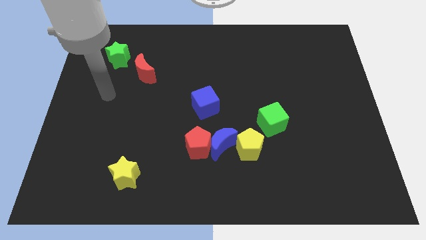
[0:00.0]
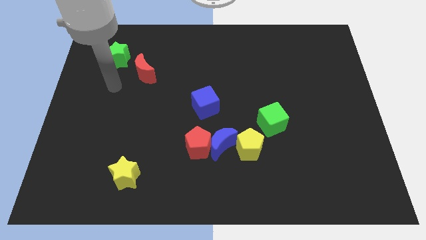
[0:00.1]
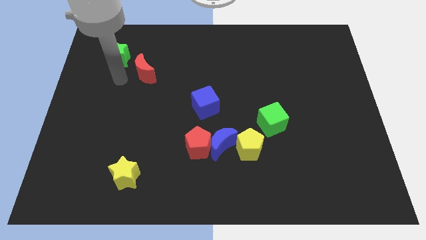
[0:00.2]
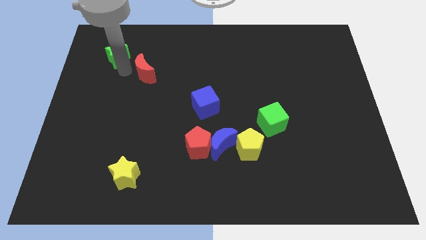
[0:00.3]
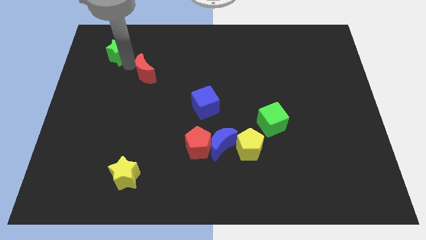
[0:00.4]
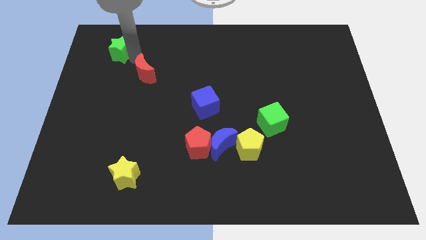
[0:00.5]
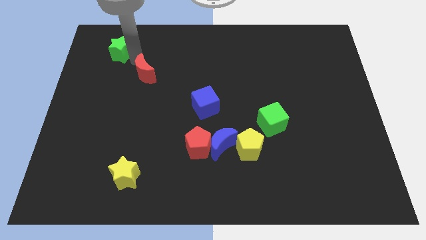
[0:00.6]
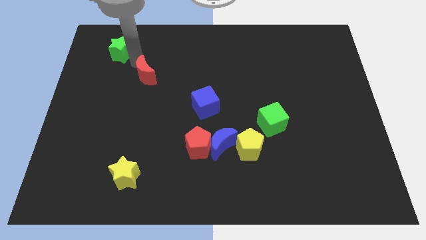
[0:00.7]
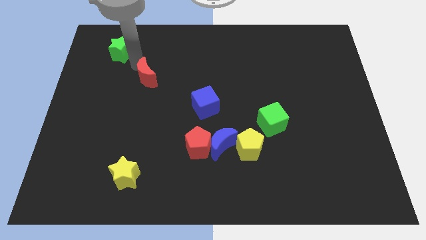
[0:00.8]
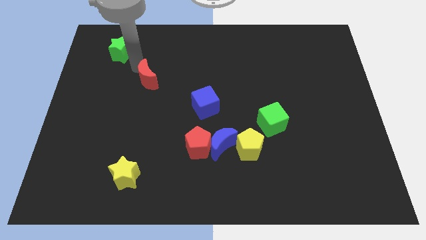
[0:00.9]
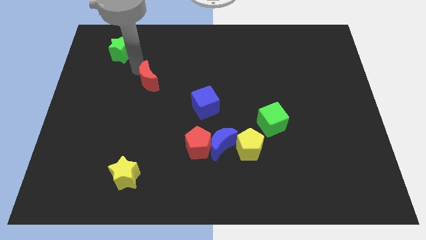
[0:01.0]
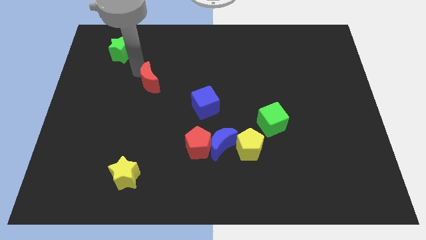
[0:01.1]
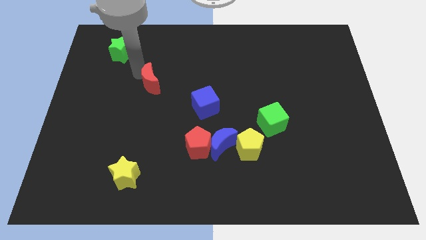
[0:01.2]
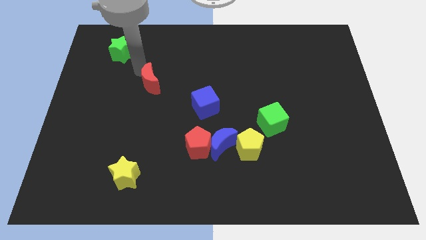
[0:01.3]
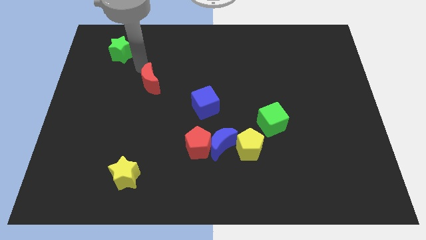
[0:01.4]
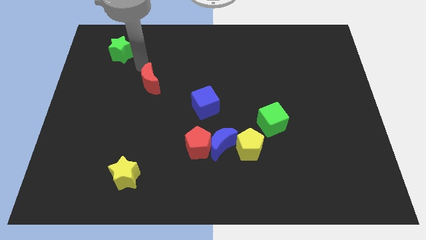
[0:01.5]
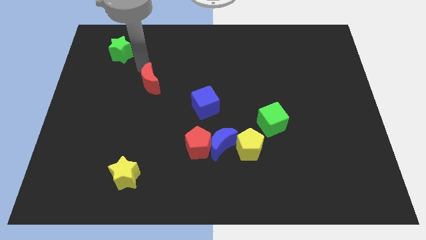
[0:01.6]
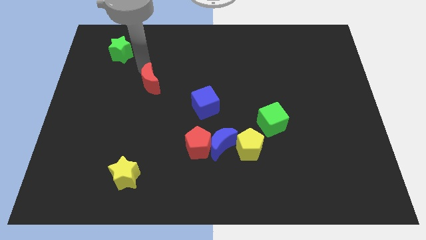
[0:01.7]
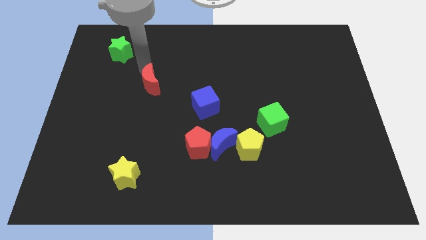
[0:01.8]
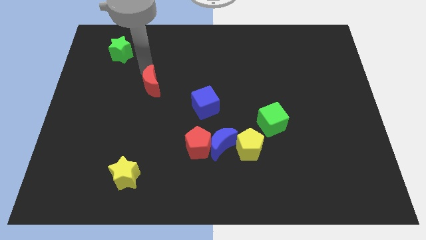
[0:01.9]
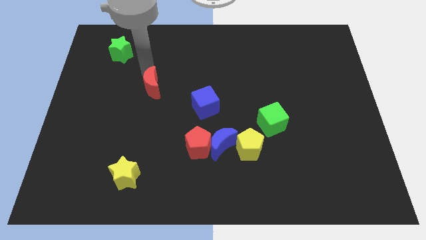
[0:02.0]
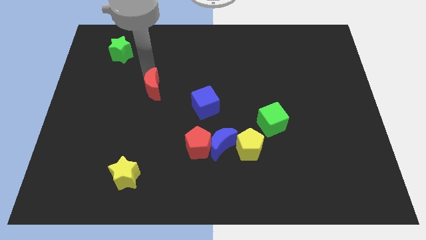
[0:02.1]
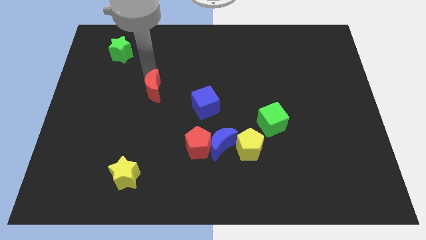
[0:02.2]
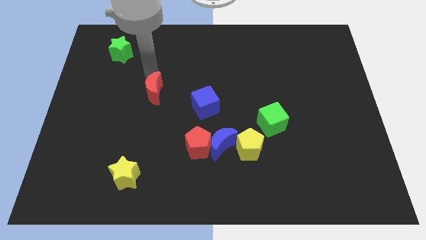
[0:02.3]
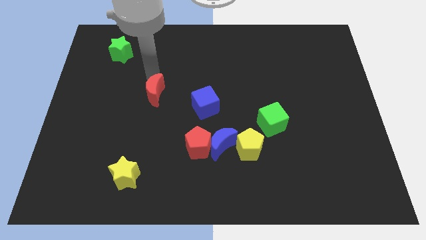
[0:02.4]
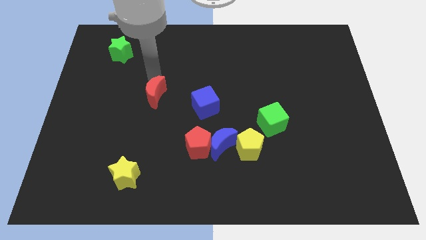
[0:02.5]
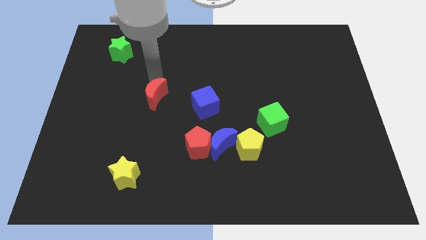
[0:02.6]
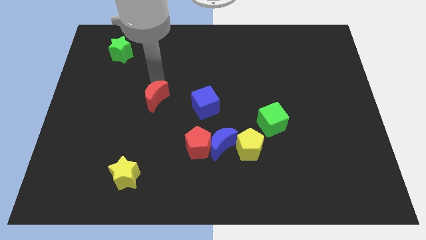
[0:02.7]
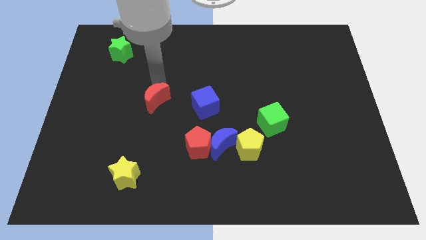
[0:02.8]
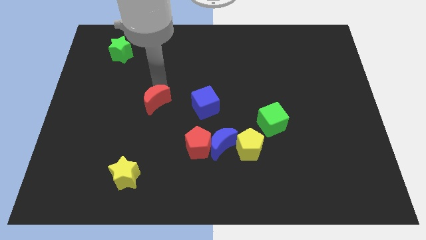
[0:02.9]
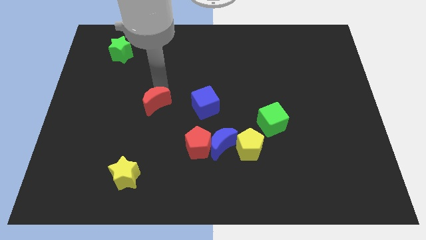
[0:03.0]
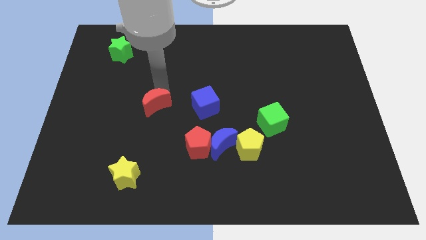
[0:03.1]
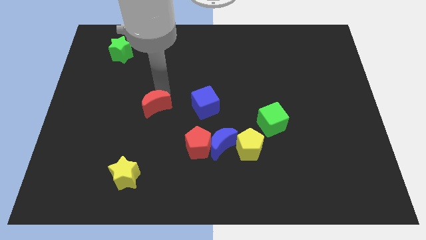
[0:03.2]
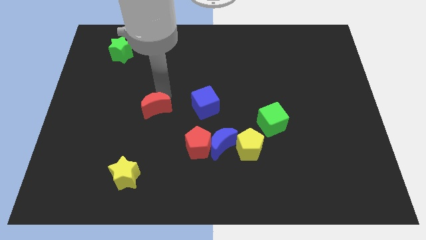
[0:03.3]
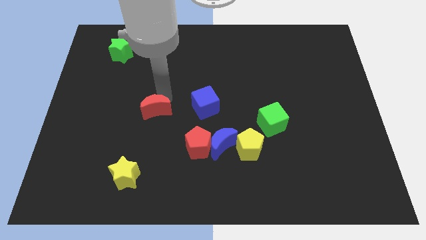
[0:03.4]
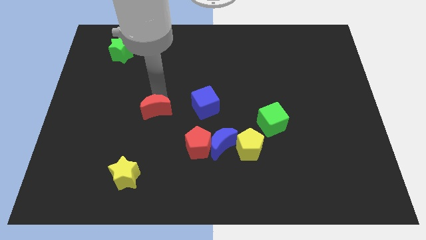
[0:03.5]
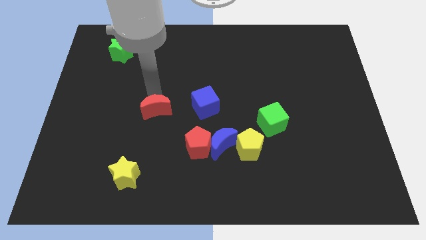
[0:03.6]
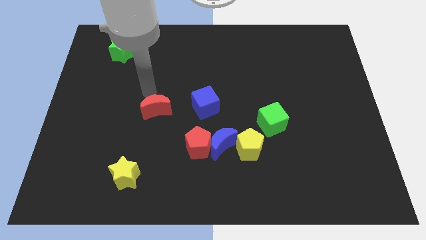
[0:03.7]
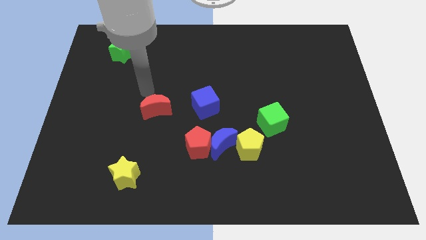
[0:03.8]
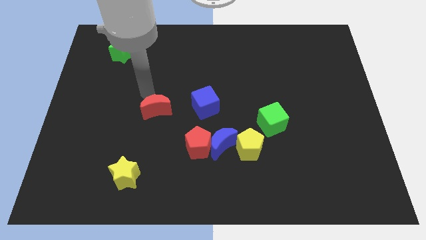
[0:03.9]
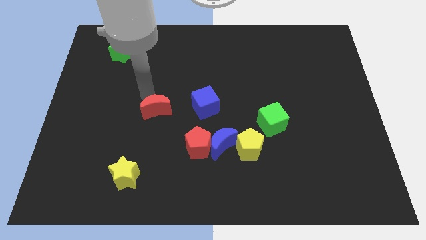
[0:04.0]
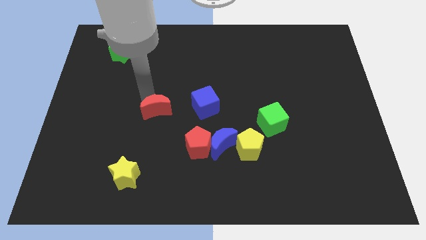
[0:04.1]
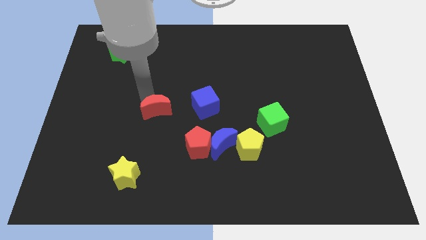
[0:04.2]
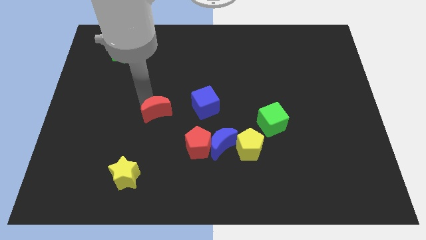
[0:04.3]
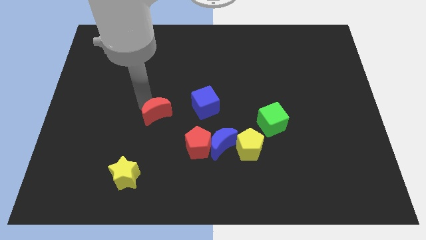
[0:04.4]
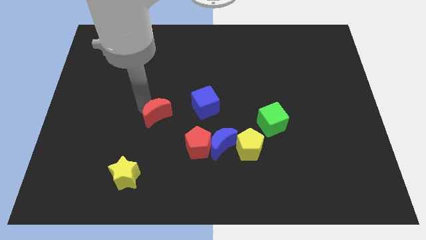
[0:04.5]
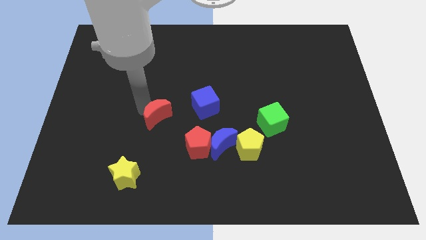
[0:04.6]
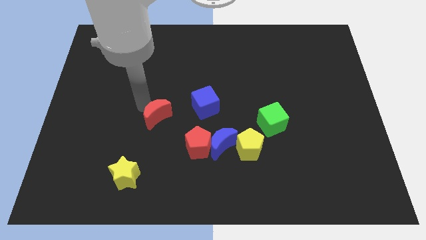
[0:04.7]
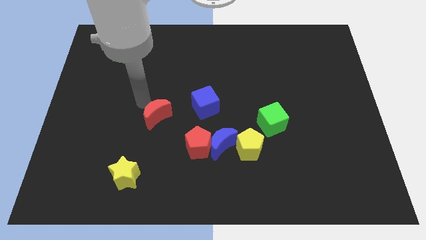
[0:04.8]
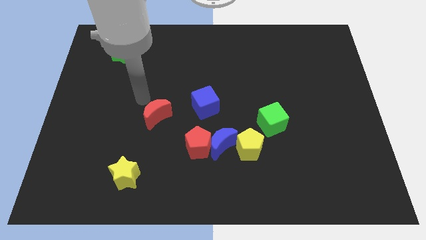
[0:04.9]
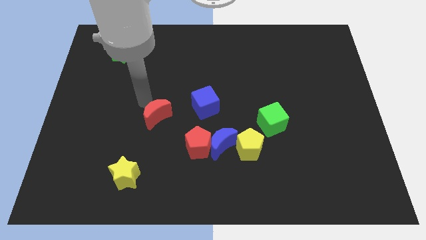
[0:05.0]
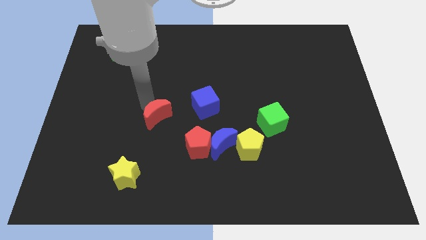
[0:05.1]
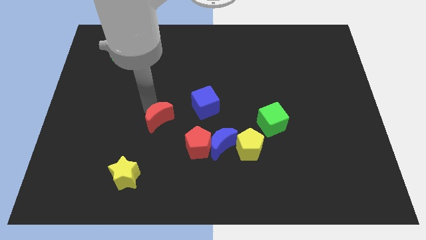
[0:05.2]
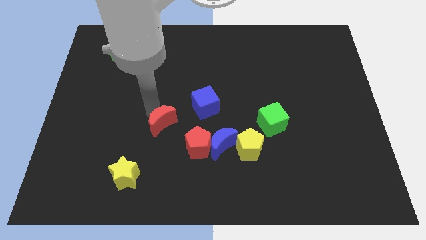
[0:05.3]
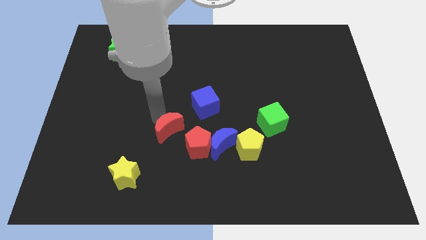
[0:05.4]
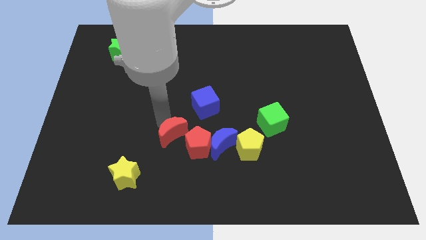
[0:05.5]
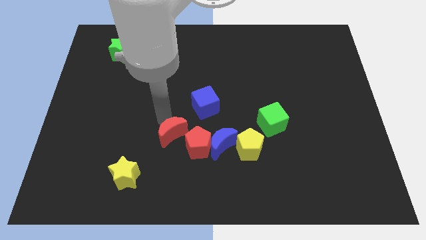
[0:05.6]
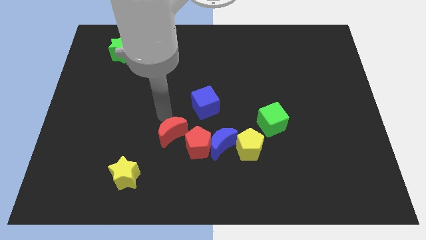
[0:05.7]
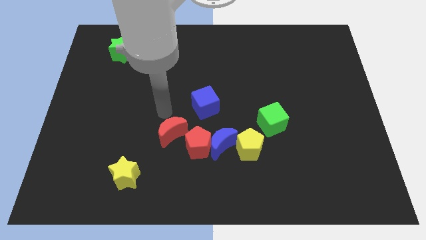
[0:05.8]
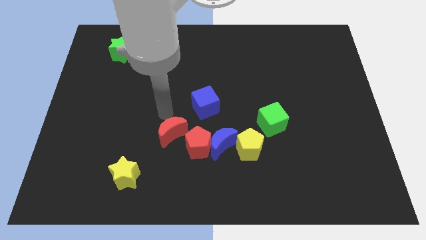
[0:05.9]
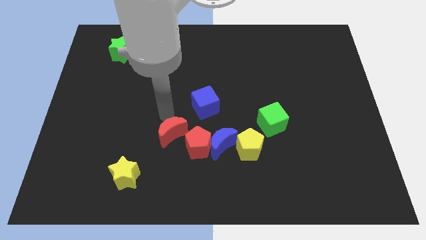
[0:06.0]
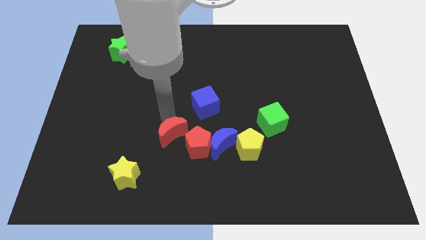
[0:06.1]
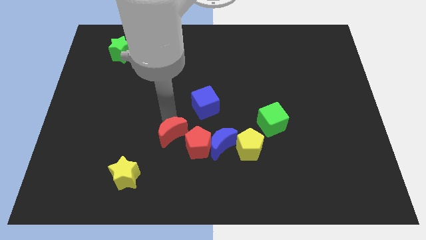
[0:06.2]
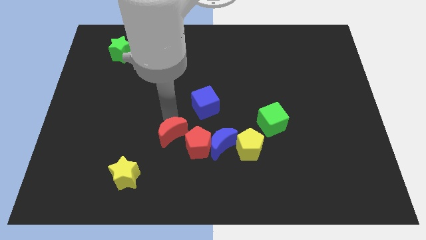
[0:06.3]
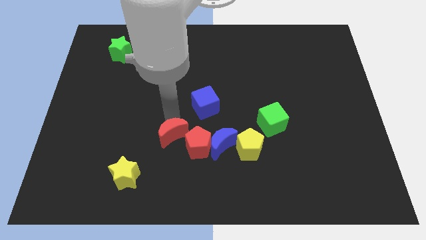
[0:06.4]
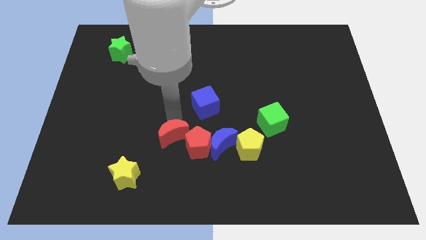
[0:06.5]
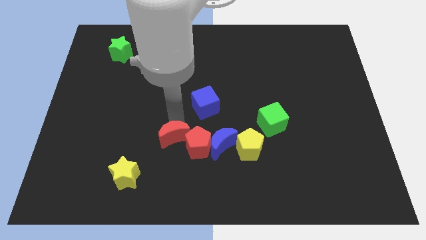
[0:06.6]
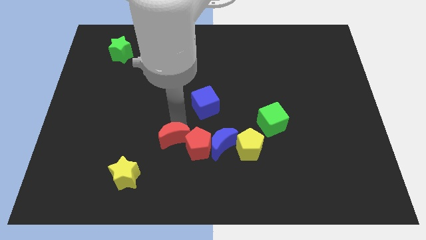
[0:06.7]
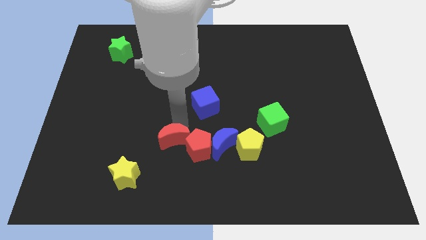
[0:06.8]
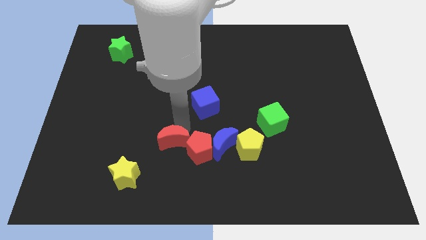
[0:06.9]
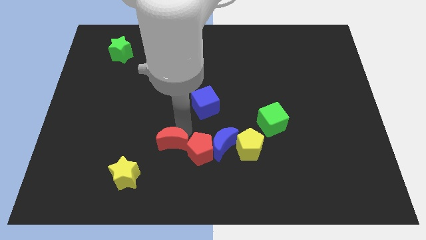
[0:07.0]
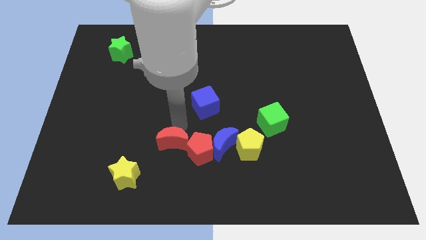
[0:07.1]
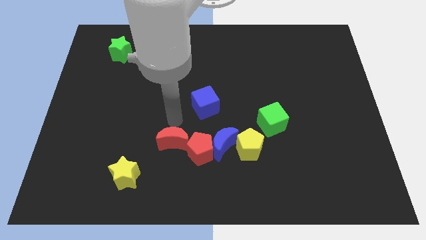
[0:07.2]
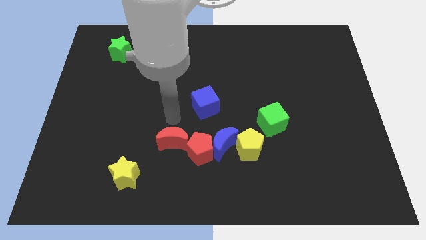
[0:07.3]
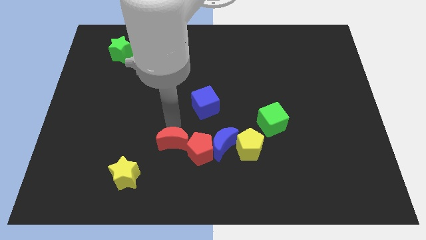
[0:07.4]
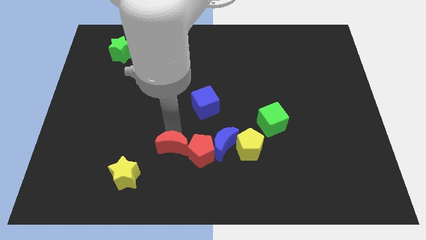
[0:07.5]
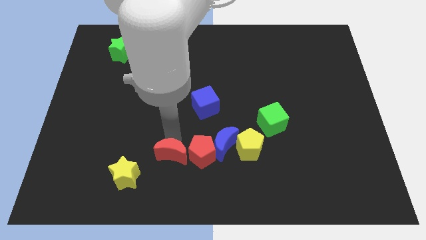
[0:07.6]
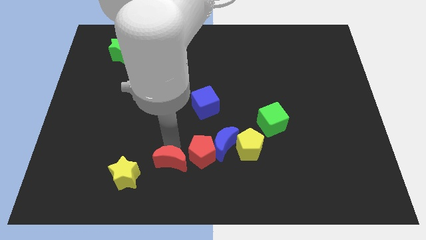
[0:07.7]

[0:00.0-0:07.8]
push the red moon to the right side of the yellow star

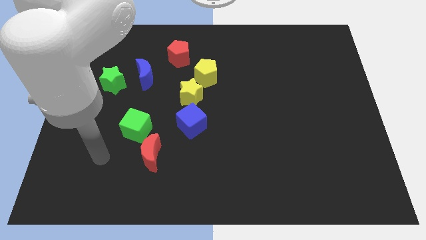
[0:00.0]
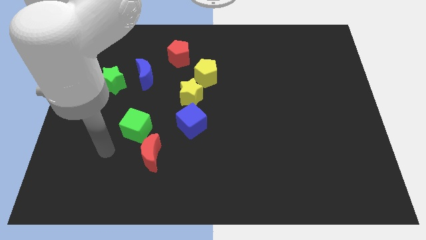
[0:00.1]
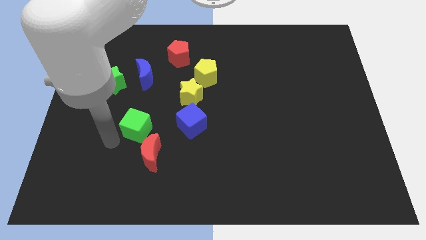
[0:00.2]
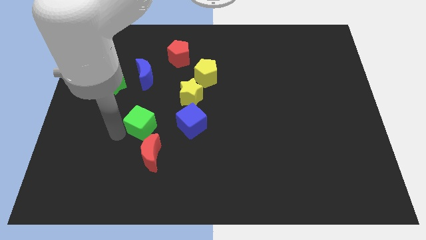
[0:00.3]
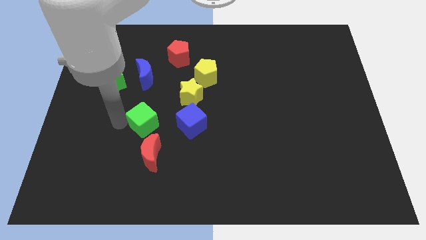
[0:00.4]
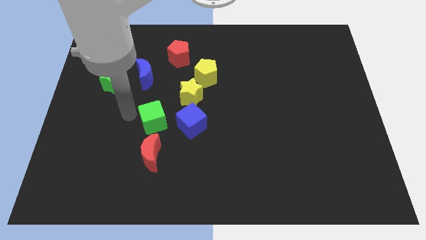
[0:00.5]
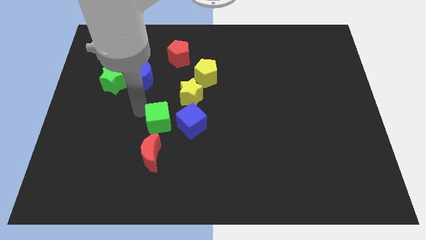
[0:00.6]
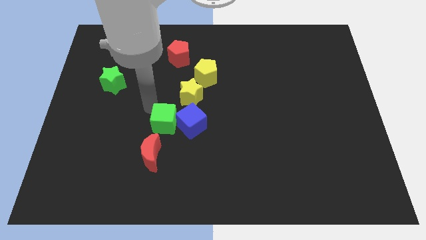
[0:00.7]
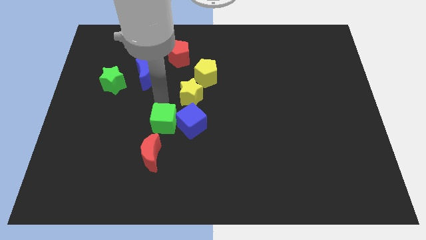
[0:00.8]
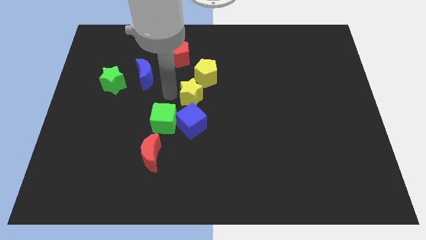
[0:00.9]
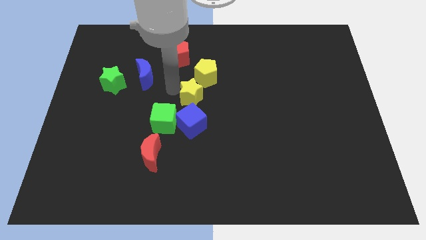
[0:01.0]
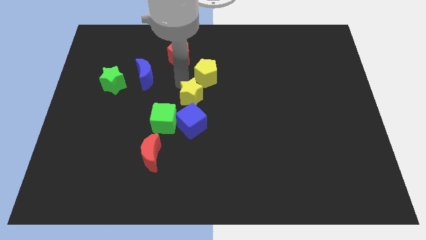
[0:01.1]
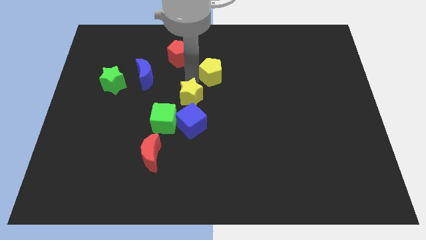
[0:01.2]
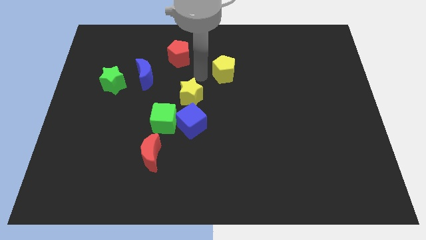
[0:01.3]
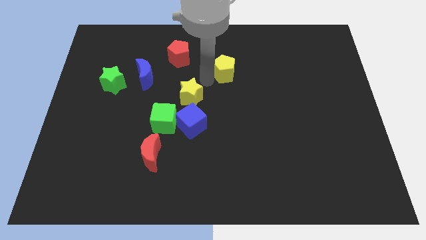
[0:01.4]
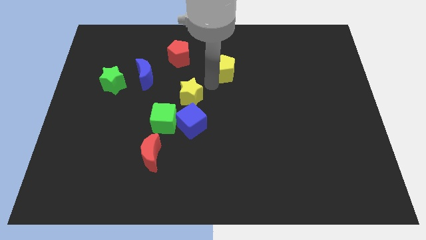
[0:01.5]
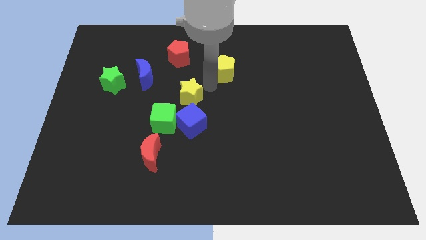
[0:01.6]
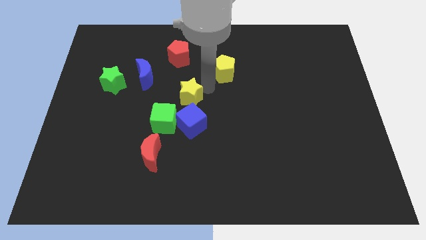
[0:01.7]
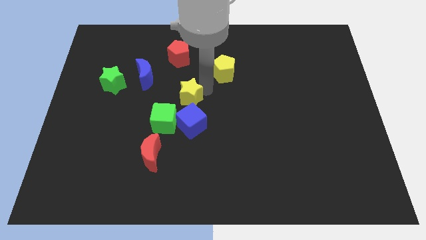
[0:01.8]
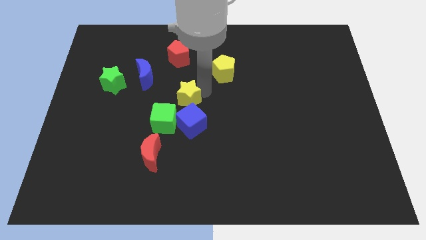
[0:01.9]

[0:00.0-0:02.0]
put the yellow star to the top left of the blue cube
